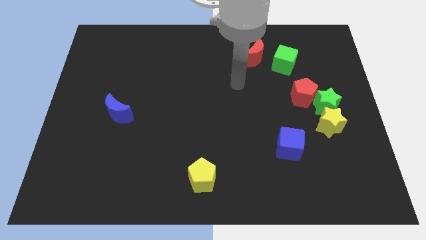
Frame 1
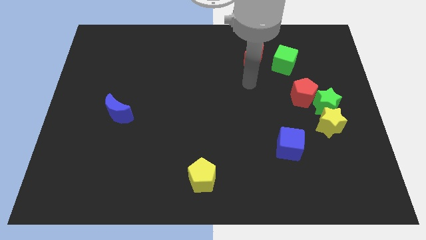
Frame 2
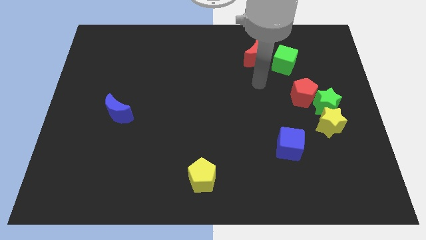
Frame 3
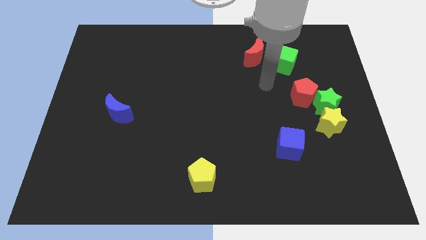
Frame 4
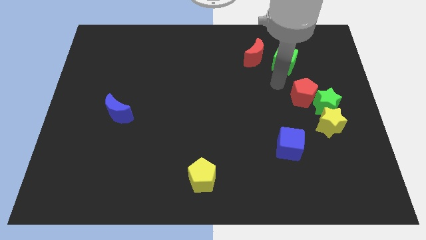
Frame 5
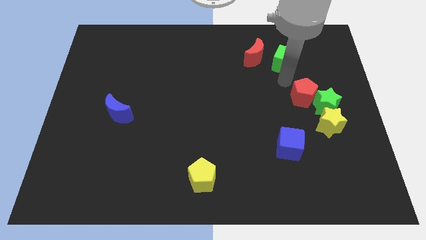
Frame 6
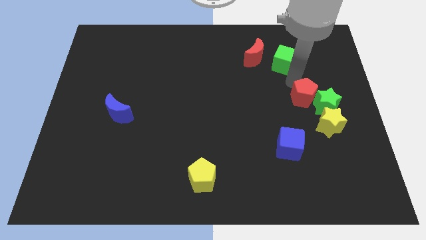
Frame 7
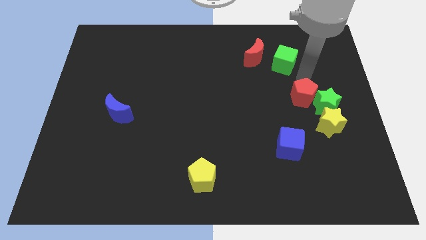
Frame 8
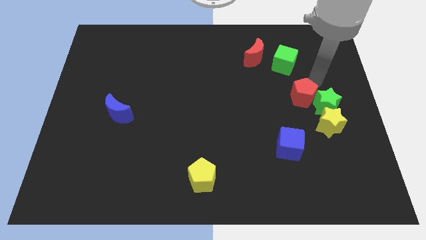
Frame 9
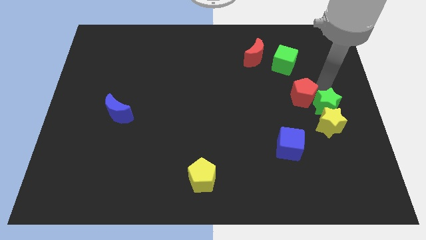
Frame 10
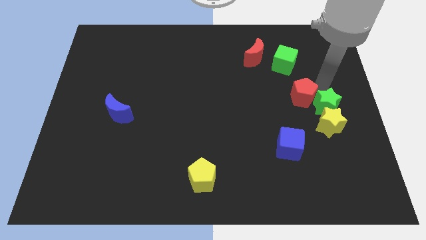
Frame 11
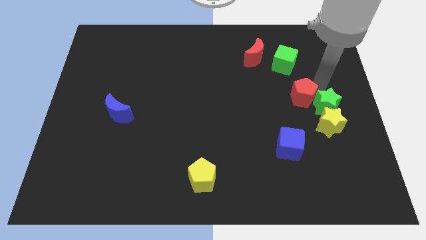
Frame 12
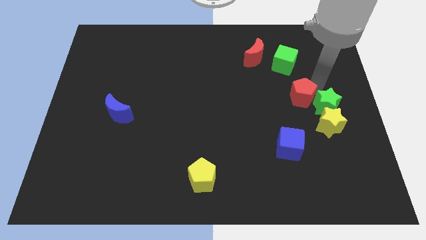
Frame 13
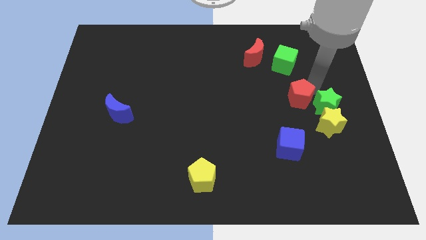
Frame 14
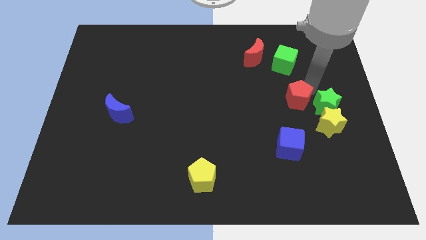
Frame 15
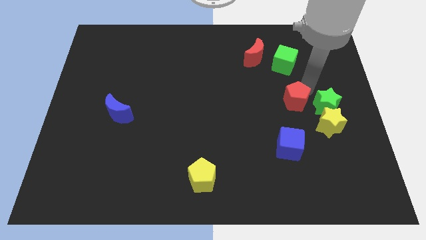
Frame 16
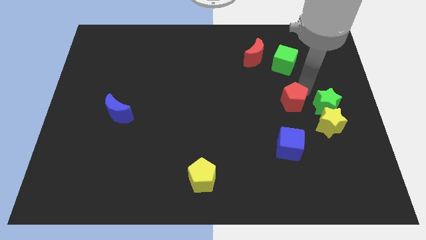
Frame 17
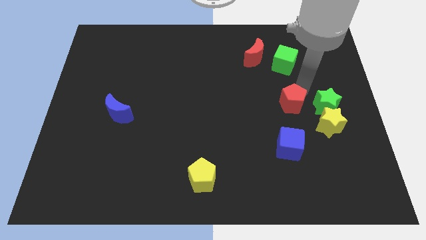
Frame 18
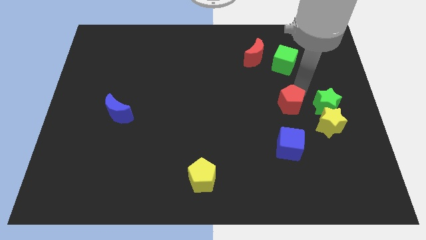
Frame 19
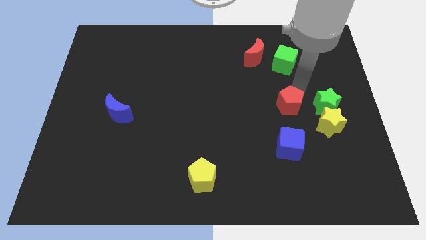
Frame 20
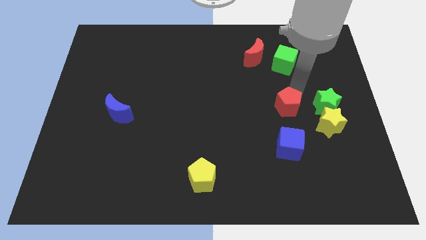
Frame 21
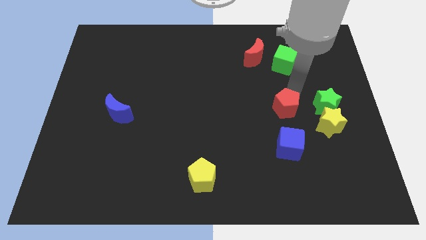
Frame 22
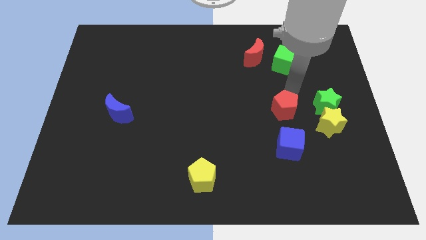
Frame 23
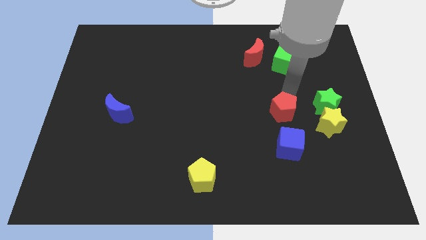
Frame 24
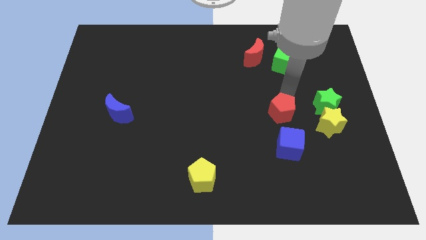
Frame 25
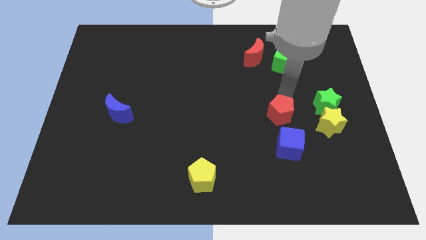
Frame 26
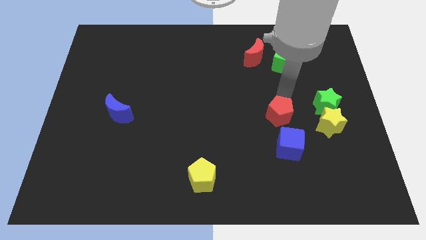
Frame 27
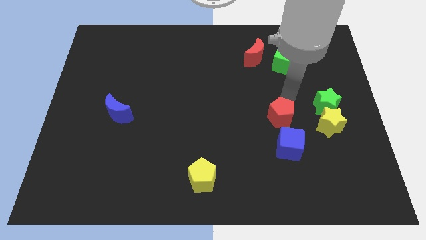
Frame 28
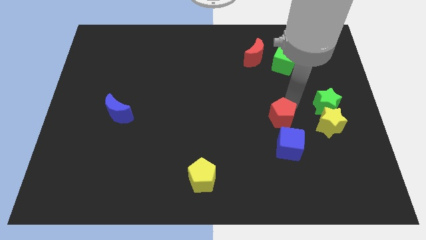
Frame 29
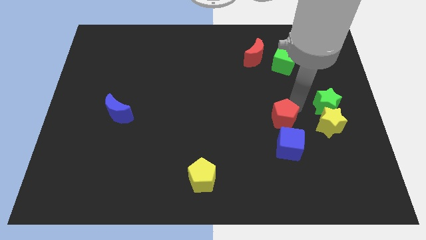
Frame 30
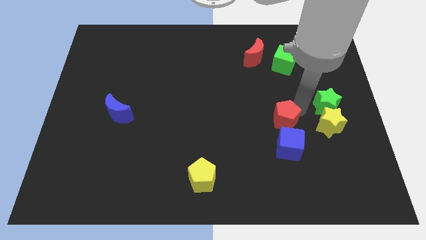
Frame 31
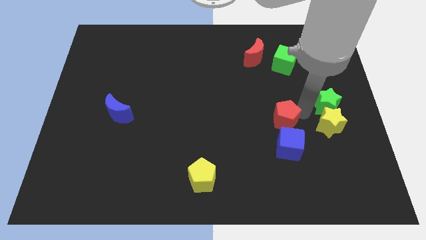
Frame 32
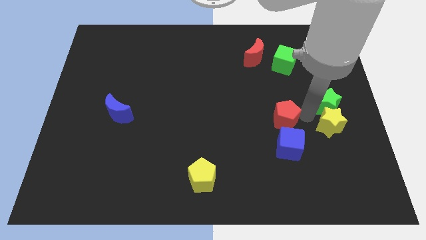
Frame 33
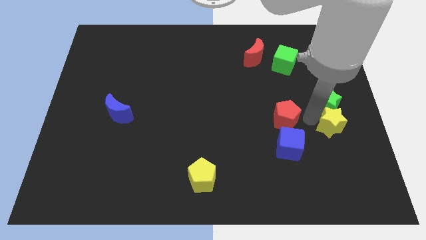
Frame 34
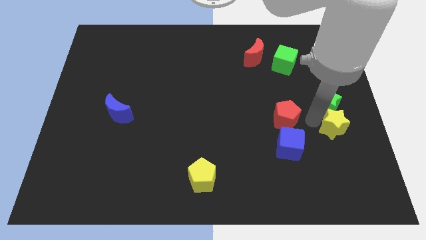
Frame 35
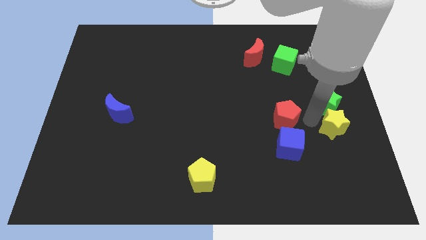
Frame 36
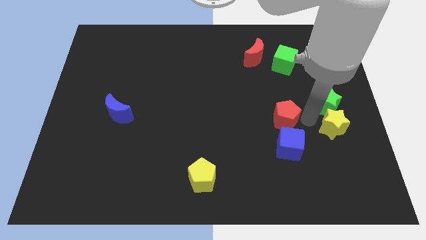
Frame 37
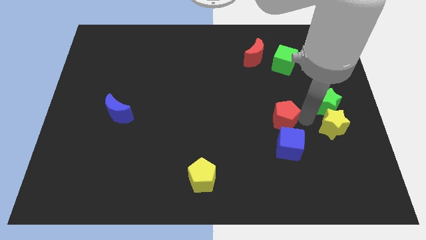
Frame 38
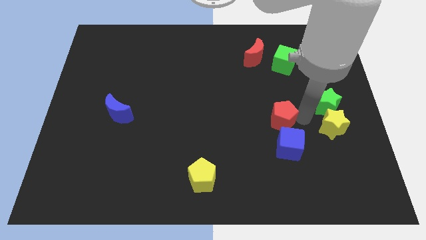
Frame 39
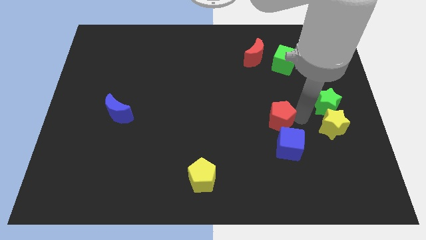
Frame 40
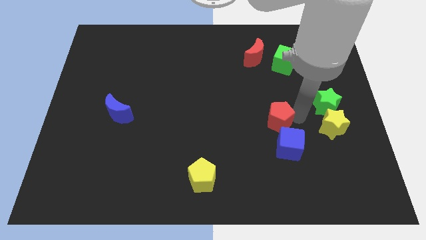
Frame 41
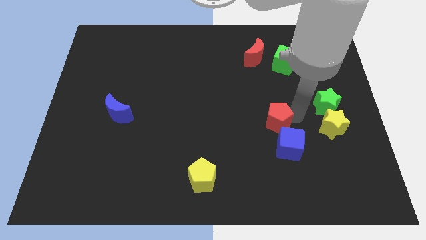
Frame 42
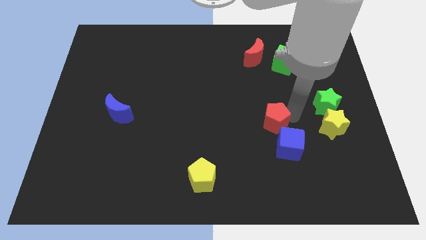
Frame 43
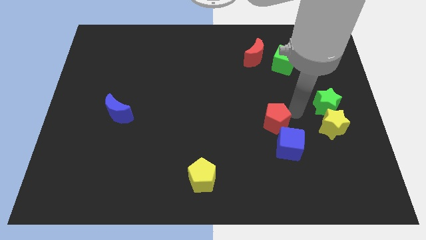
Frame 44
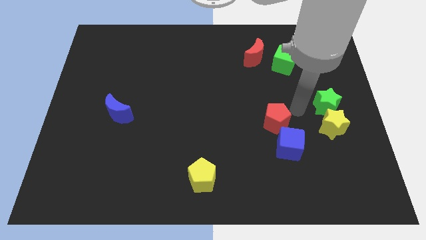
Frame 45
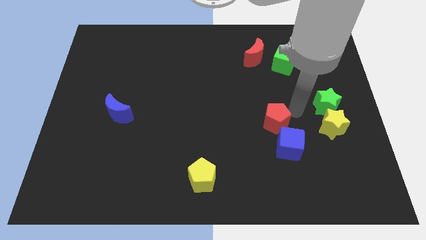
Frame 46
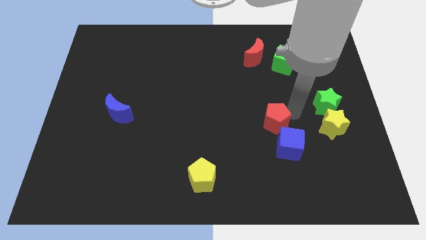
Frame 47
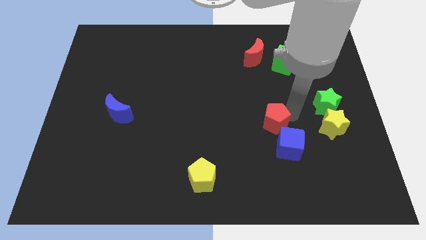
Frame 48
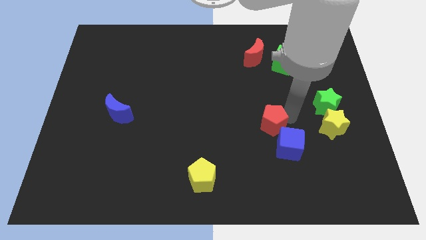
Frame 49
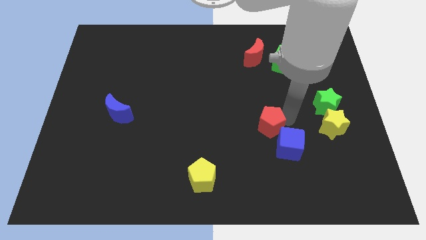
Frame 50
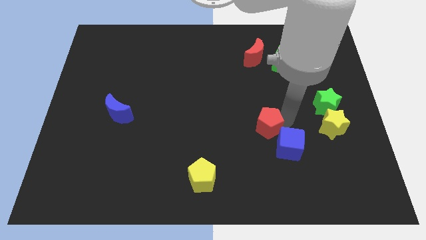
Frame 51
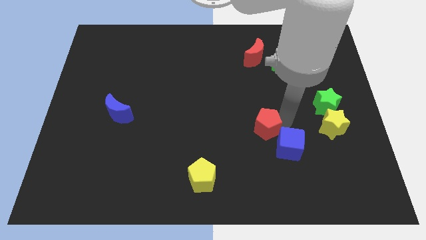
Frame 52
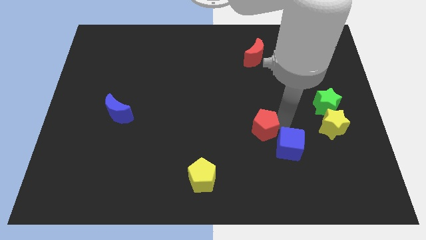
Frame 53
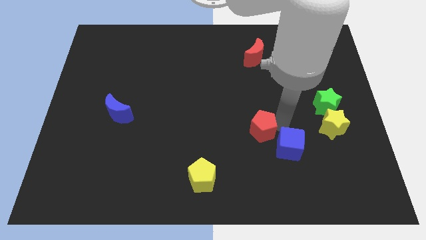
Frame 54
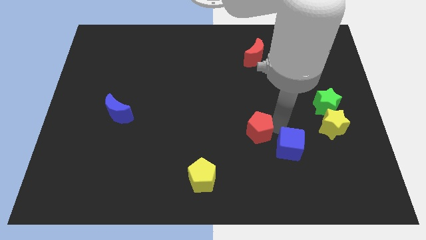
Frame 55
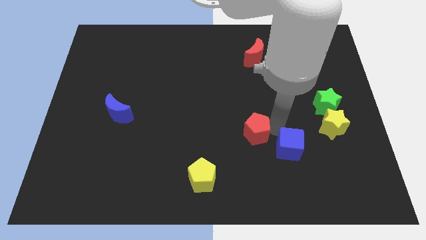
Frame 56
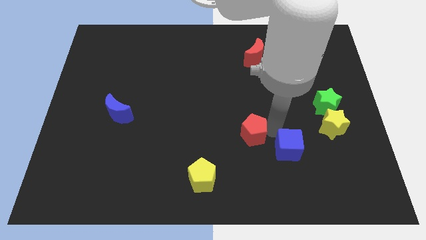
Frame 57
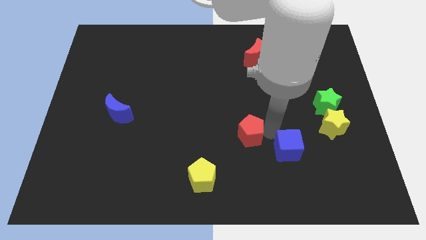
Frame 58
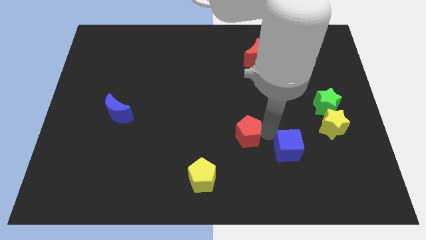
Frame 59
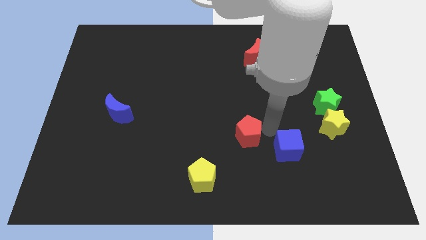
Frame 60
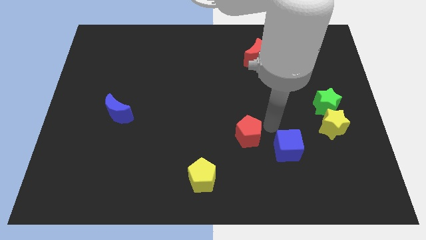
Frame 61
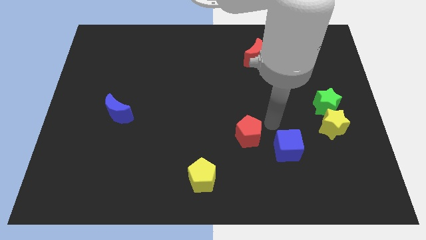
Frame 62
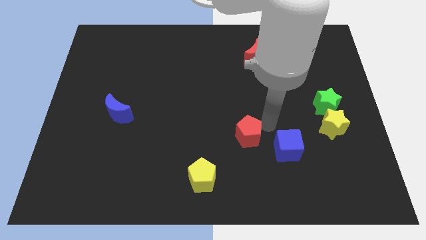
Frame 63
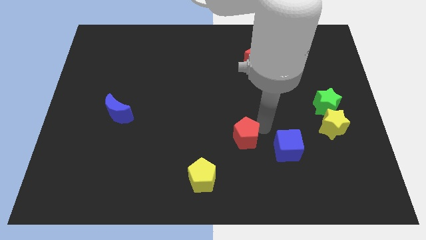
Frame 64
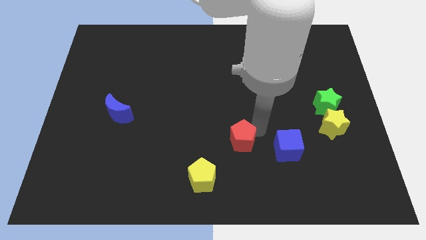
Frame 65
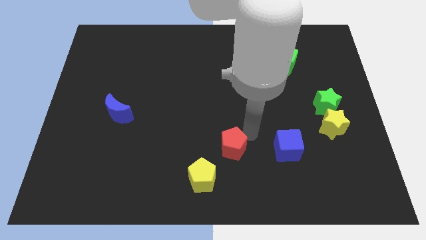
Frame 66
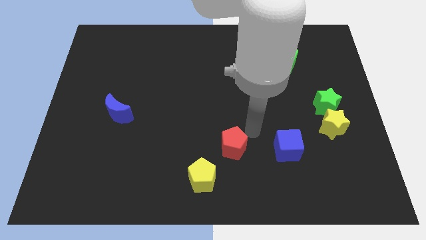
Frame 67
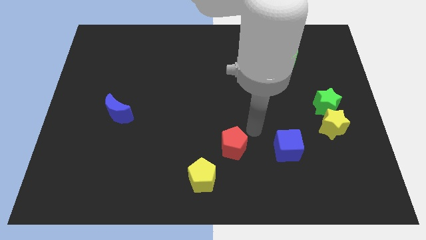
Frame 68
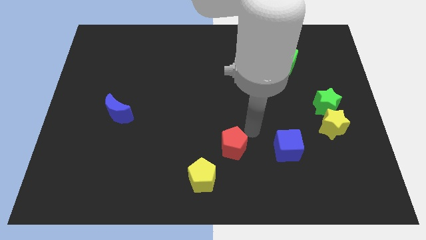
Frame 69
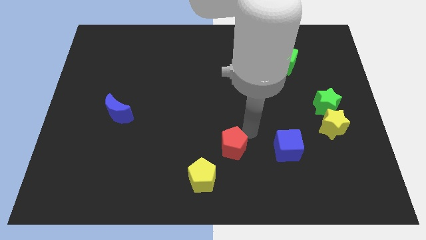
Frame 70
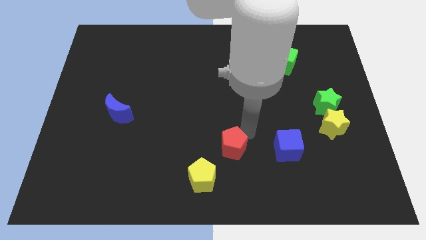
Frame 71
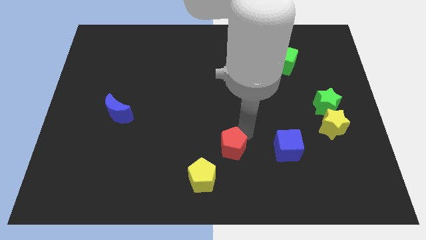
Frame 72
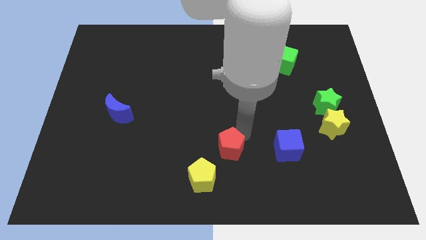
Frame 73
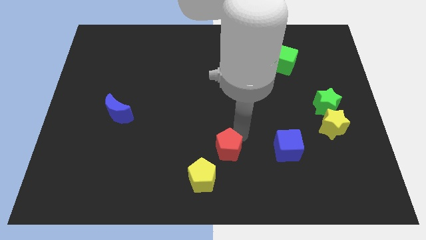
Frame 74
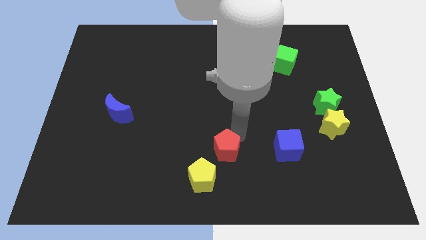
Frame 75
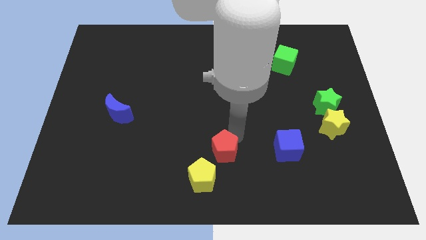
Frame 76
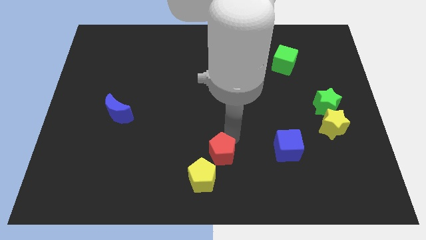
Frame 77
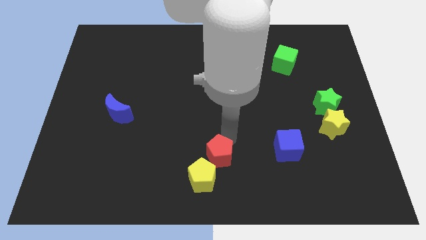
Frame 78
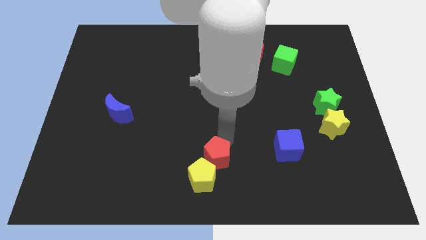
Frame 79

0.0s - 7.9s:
push the red pentagon towards the yellow pentagon
